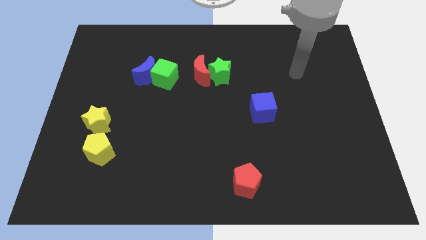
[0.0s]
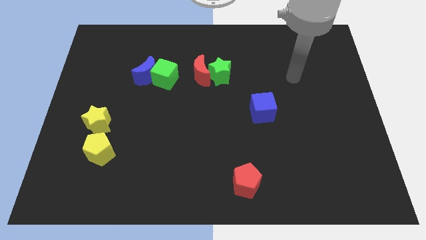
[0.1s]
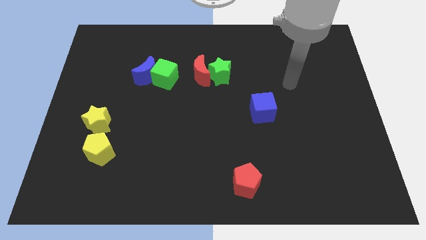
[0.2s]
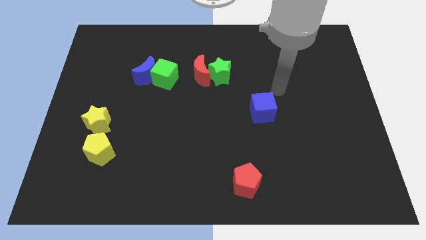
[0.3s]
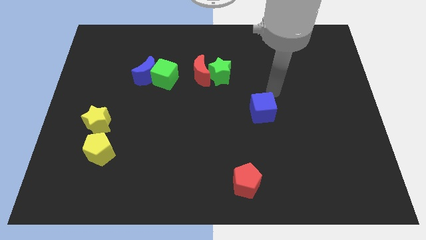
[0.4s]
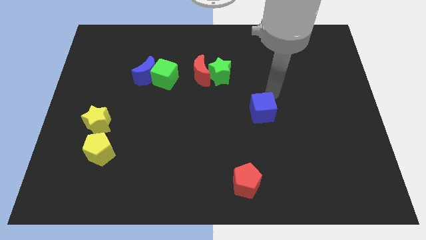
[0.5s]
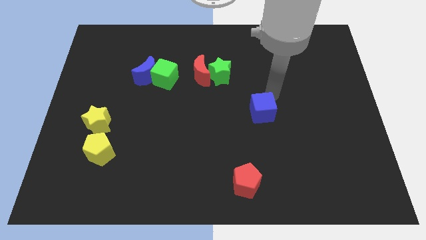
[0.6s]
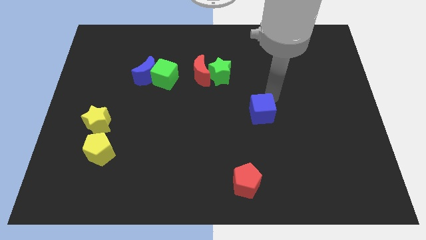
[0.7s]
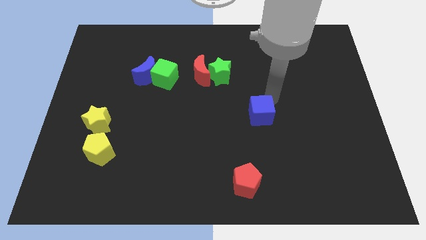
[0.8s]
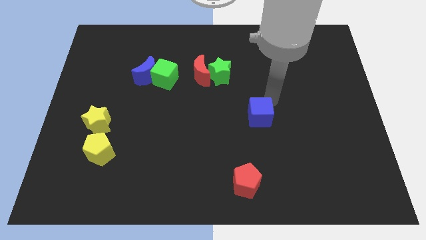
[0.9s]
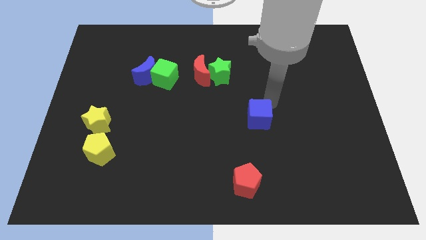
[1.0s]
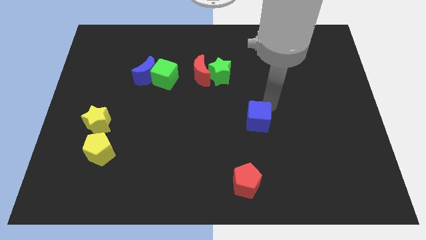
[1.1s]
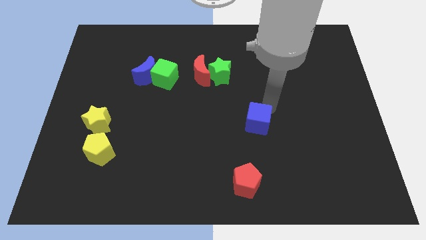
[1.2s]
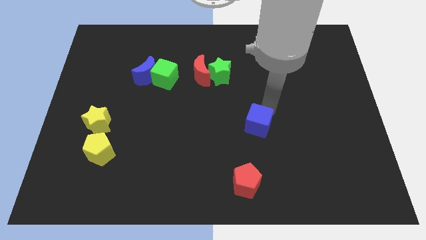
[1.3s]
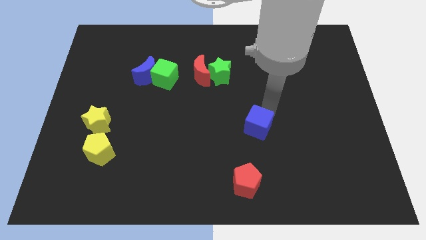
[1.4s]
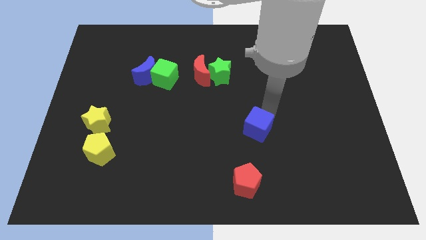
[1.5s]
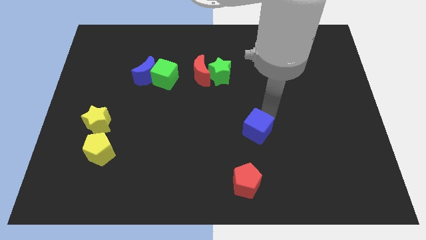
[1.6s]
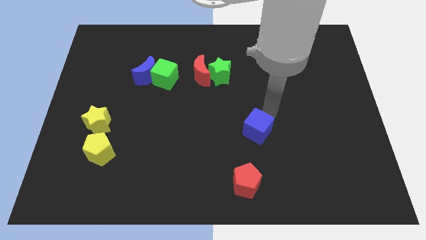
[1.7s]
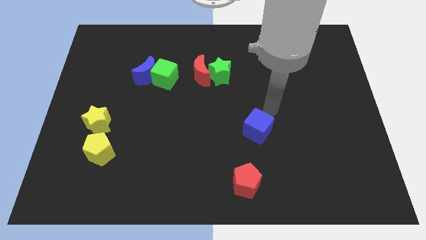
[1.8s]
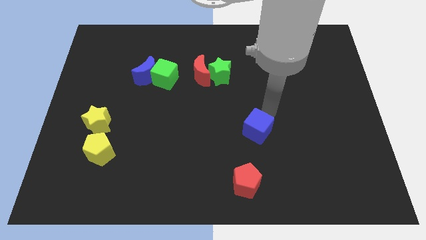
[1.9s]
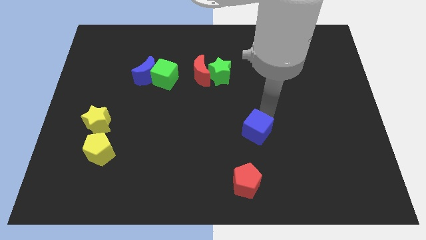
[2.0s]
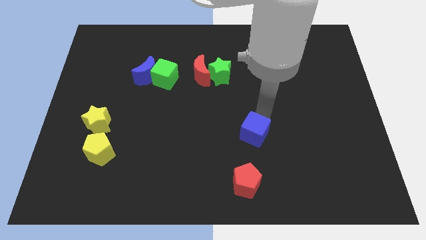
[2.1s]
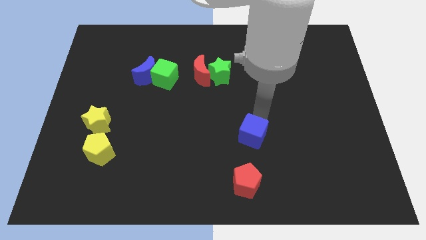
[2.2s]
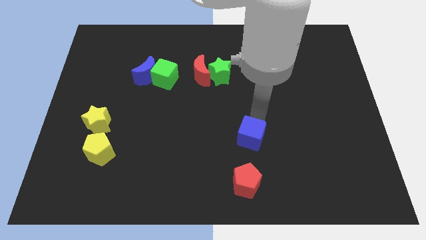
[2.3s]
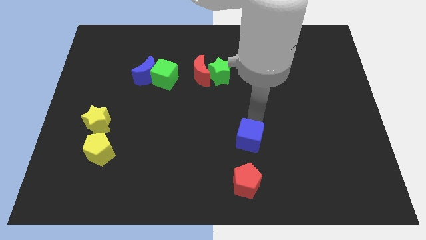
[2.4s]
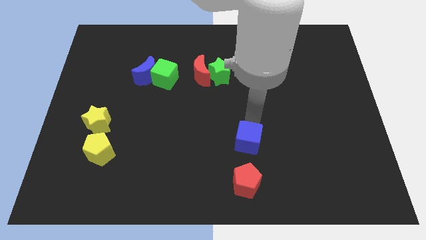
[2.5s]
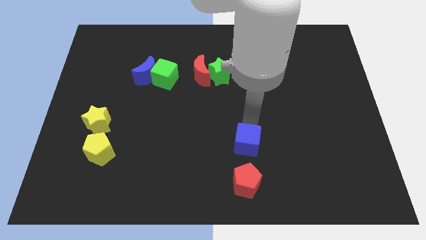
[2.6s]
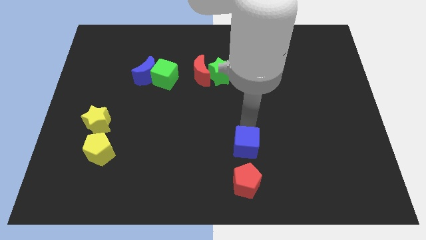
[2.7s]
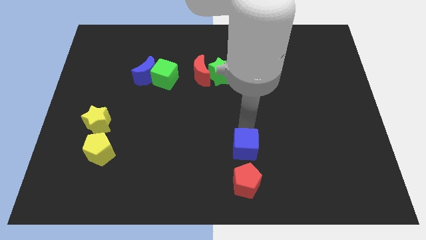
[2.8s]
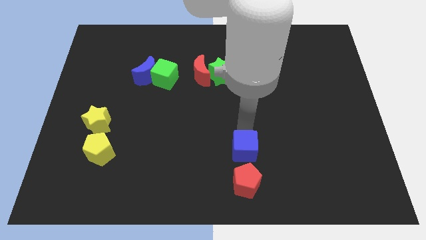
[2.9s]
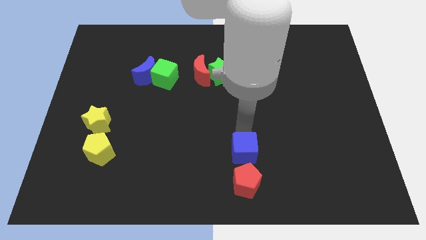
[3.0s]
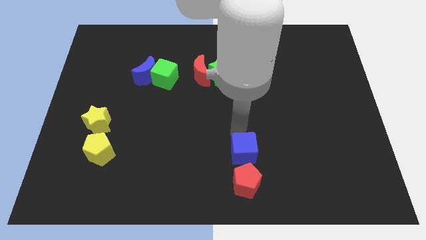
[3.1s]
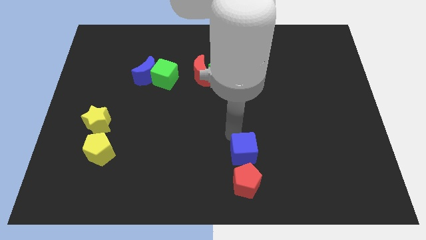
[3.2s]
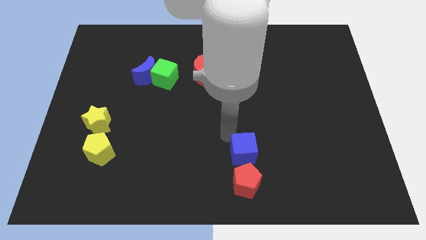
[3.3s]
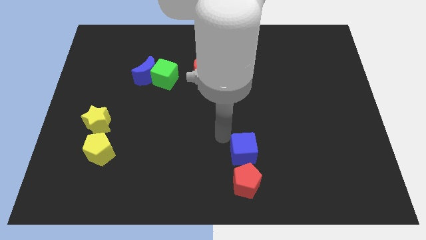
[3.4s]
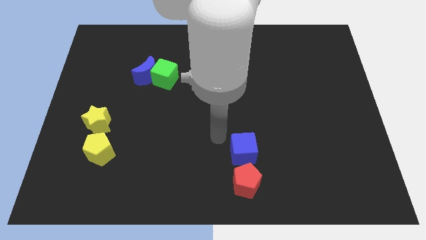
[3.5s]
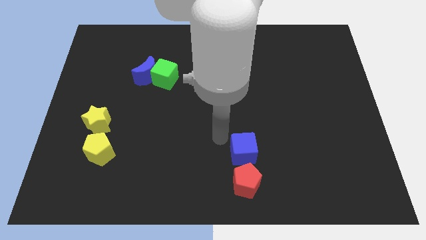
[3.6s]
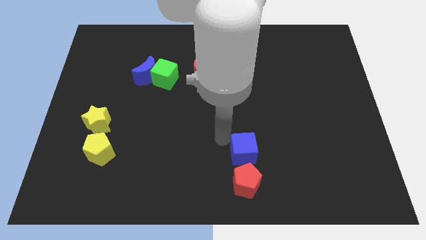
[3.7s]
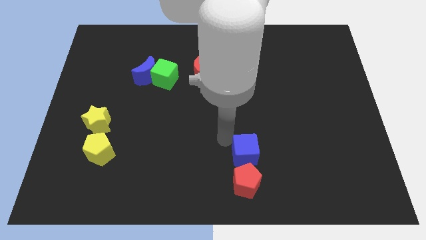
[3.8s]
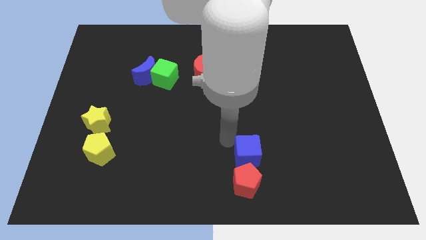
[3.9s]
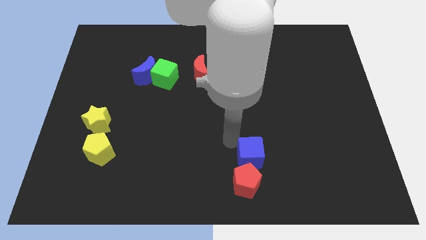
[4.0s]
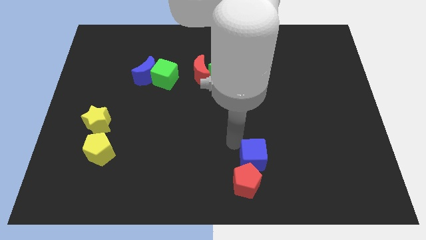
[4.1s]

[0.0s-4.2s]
push the blue cube next to the red pentagon

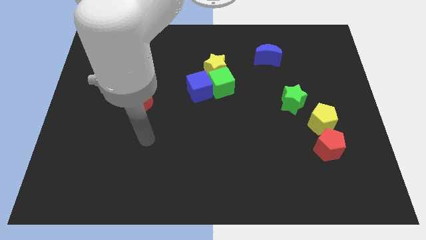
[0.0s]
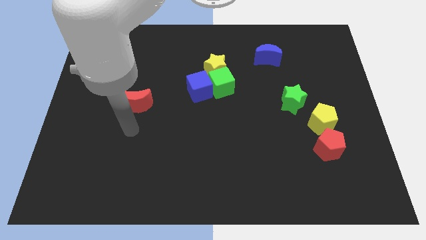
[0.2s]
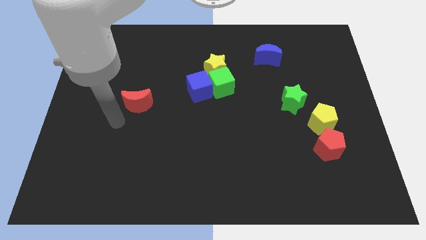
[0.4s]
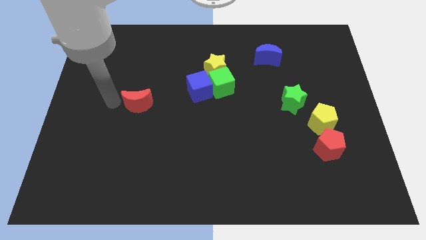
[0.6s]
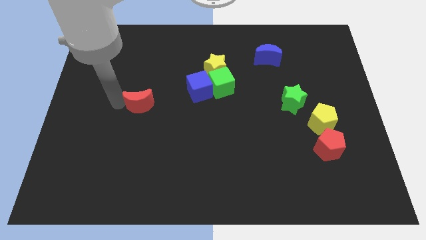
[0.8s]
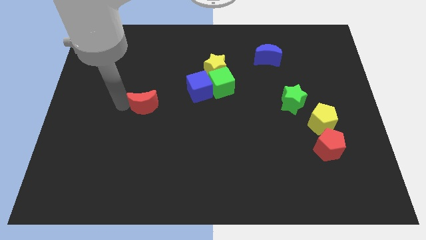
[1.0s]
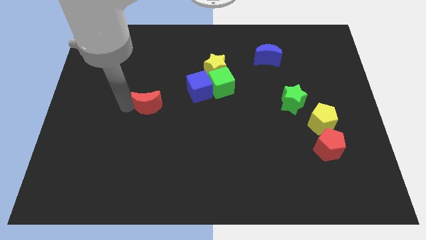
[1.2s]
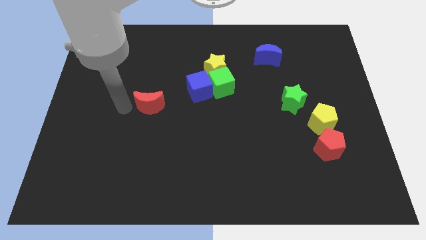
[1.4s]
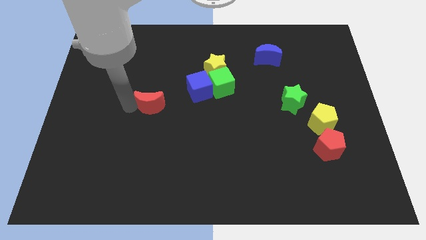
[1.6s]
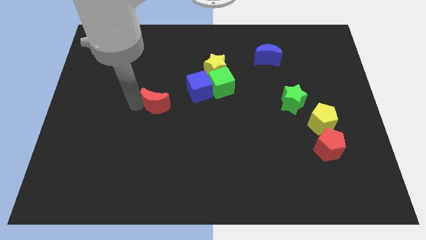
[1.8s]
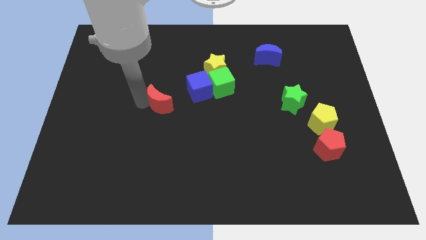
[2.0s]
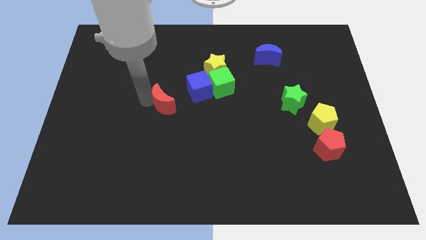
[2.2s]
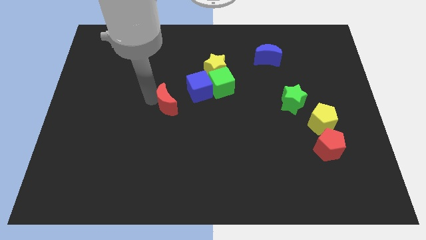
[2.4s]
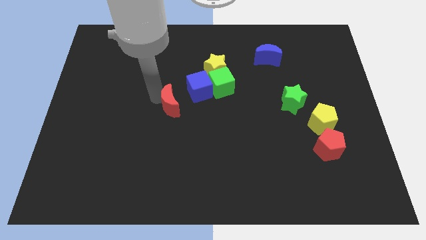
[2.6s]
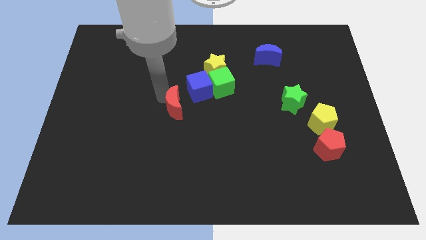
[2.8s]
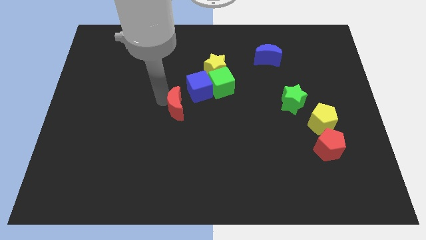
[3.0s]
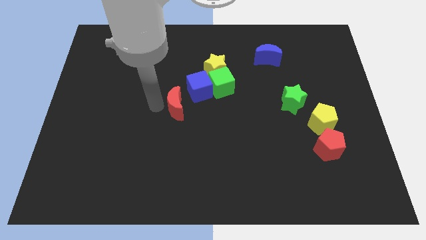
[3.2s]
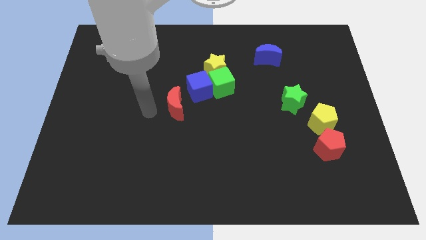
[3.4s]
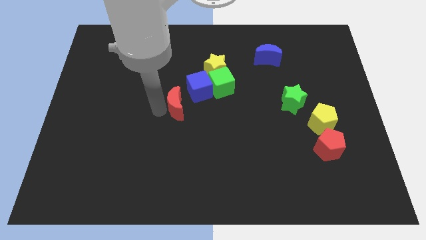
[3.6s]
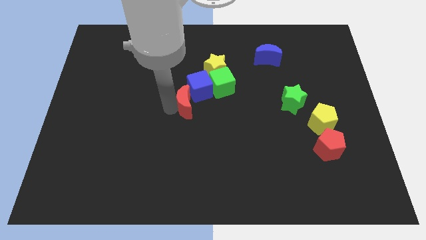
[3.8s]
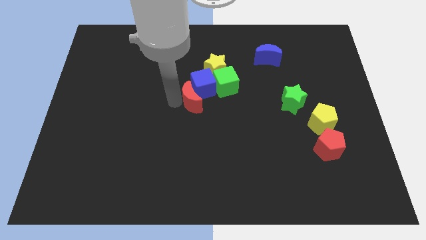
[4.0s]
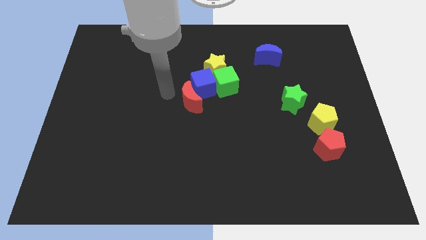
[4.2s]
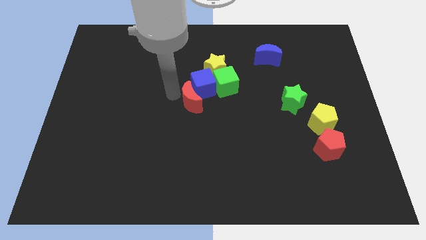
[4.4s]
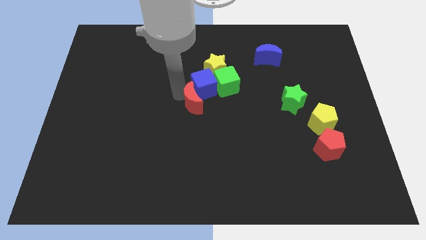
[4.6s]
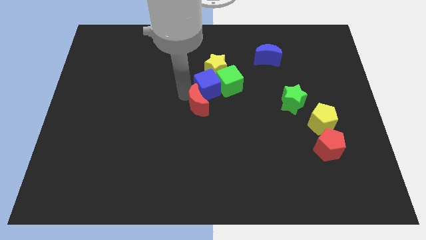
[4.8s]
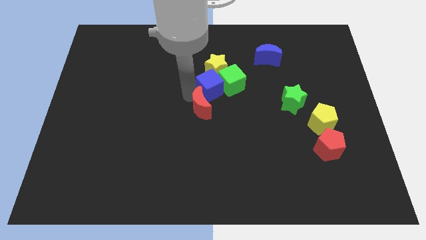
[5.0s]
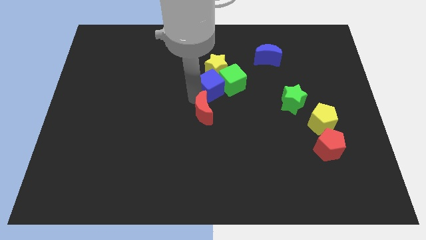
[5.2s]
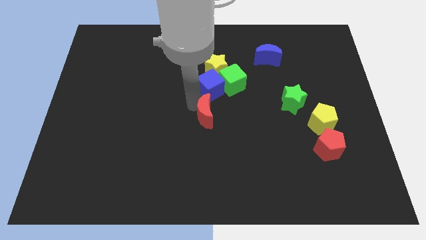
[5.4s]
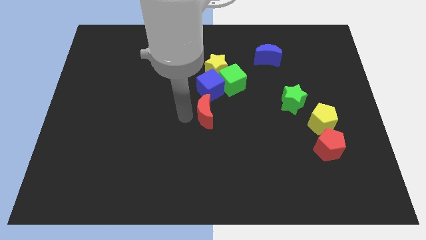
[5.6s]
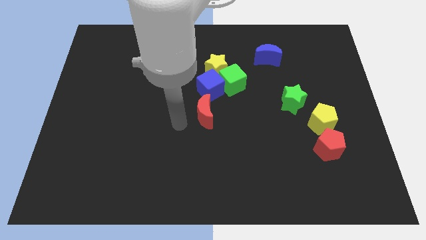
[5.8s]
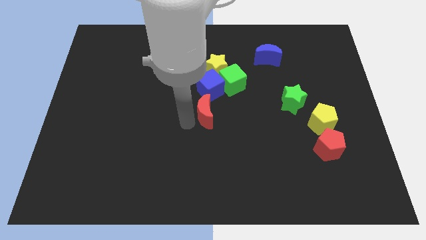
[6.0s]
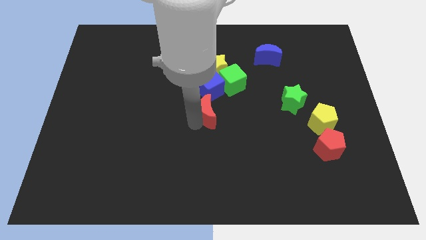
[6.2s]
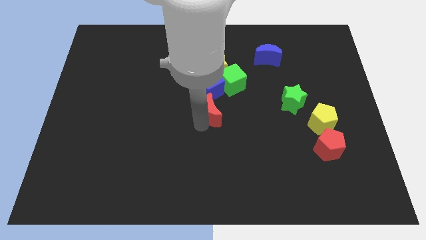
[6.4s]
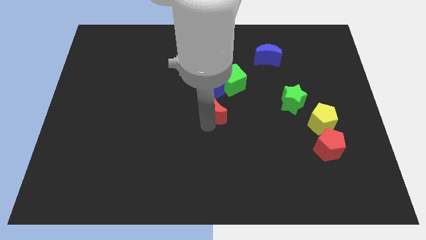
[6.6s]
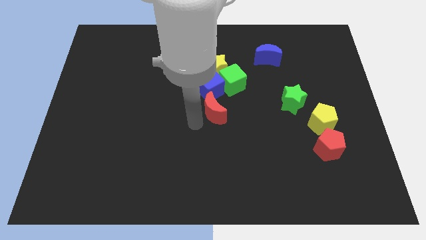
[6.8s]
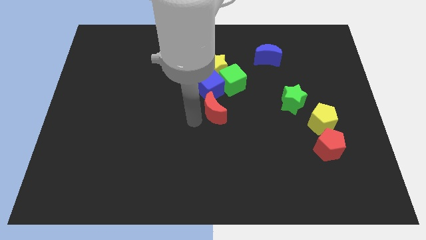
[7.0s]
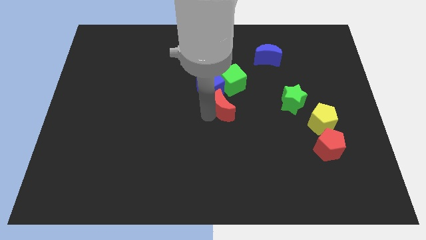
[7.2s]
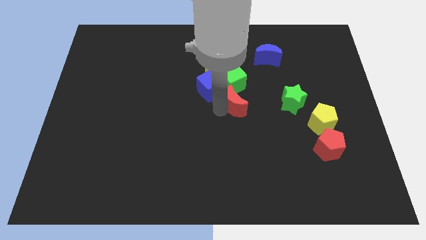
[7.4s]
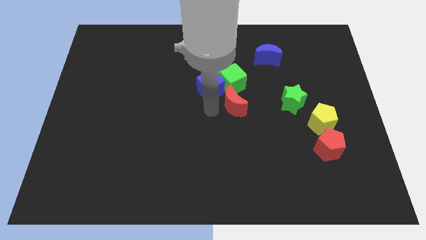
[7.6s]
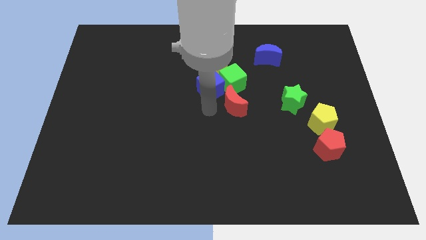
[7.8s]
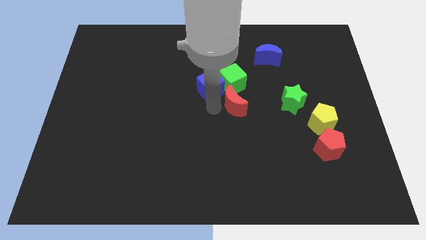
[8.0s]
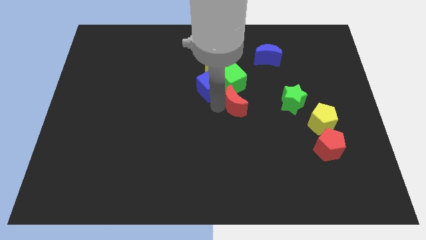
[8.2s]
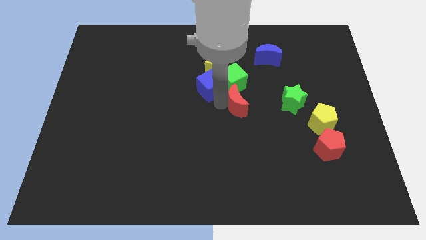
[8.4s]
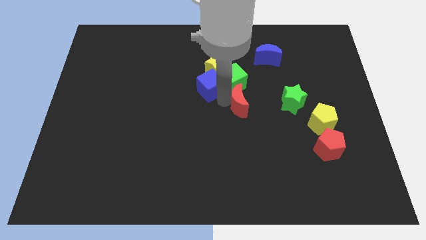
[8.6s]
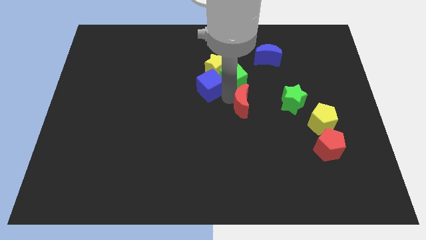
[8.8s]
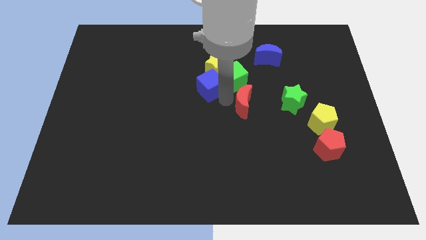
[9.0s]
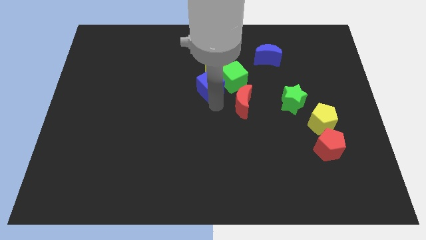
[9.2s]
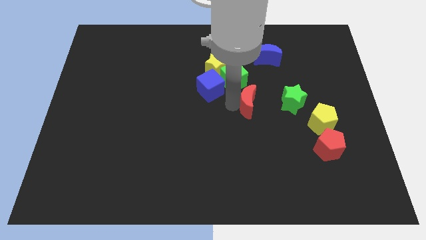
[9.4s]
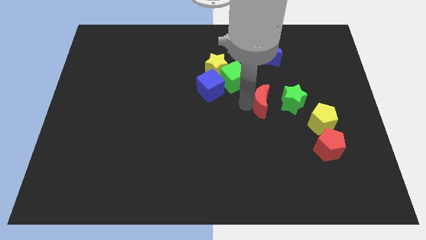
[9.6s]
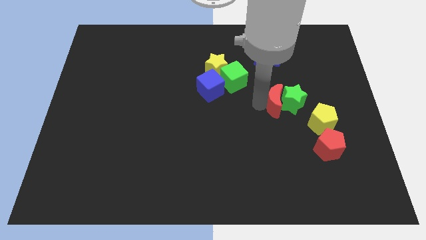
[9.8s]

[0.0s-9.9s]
slide the red moon next to the green star
